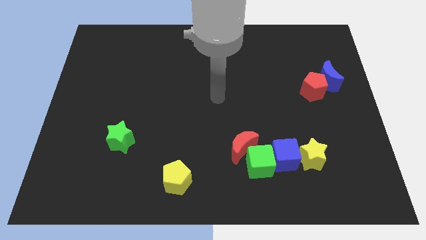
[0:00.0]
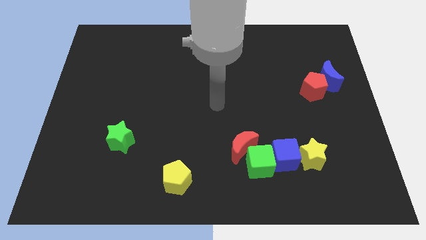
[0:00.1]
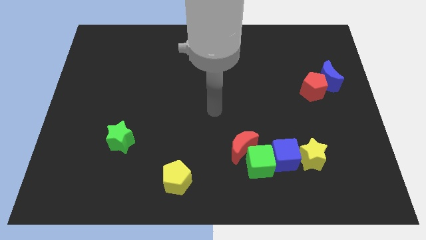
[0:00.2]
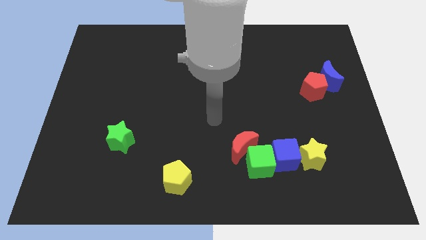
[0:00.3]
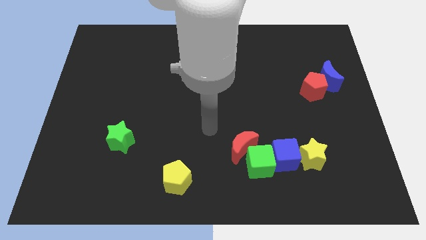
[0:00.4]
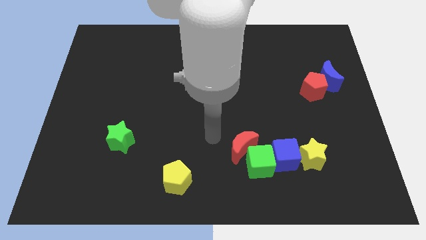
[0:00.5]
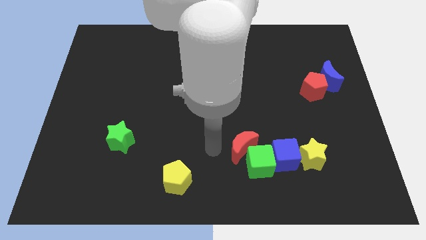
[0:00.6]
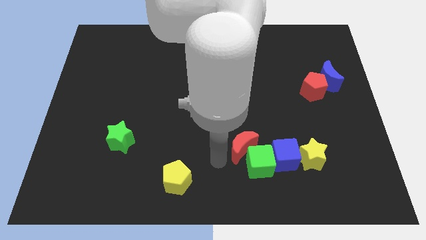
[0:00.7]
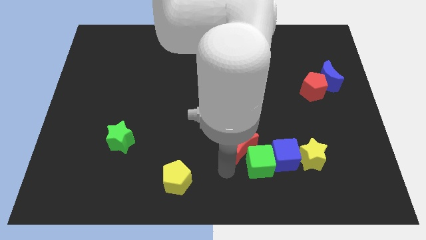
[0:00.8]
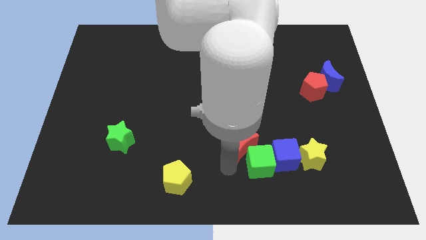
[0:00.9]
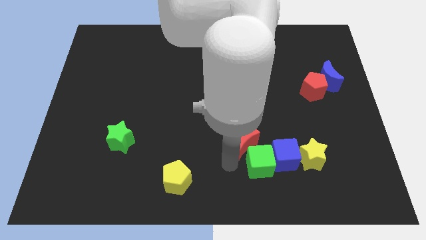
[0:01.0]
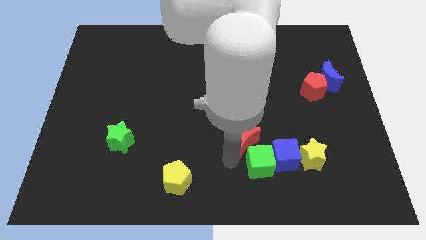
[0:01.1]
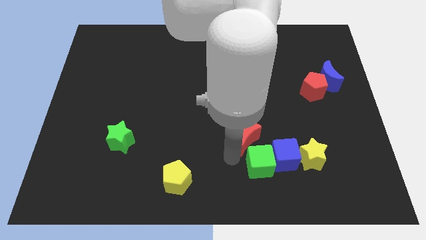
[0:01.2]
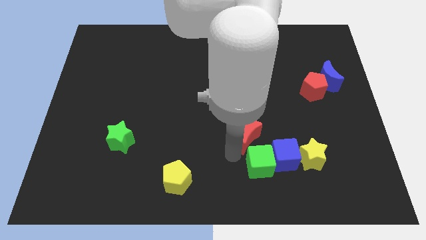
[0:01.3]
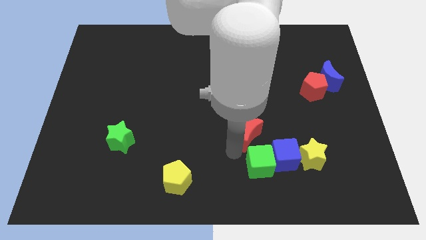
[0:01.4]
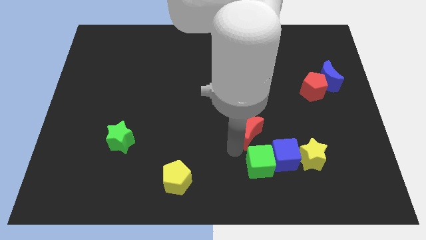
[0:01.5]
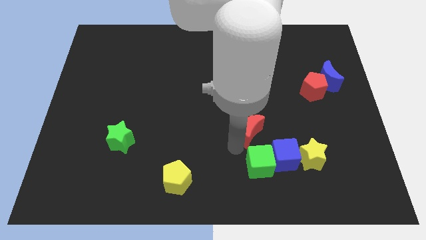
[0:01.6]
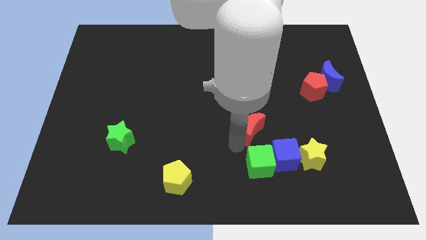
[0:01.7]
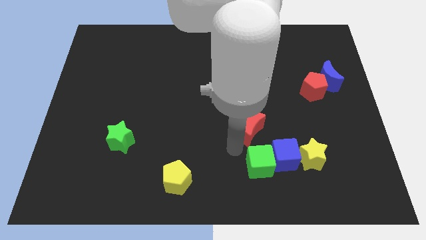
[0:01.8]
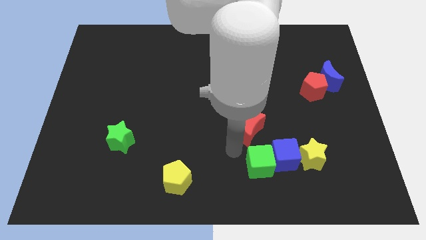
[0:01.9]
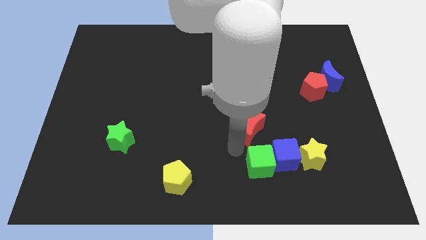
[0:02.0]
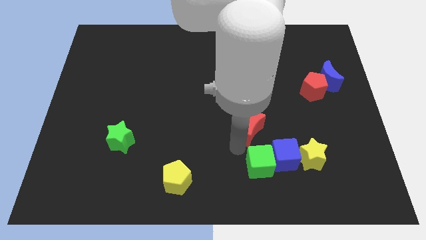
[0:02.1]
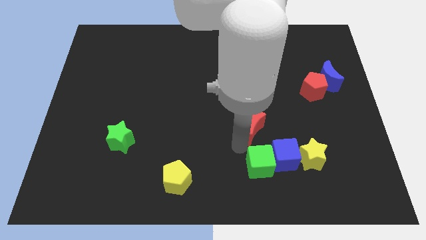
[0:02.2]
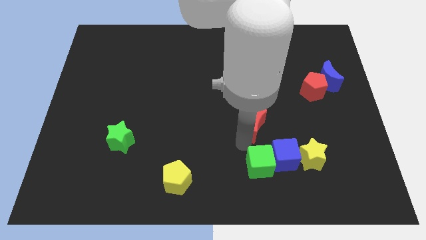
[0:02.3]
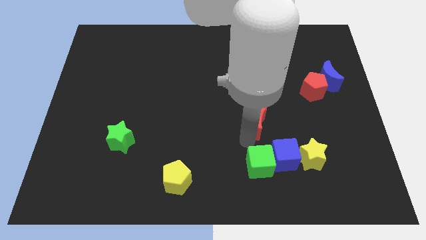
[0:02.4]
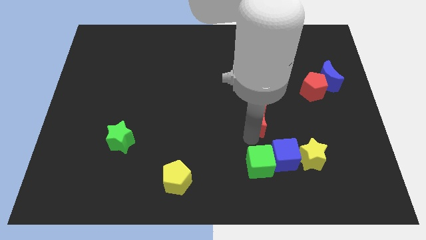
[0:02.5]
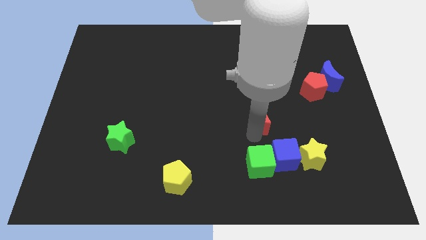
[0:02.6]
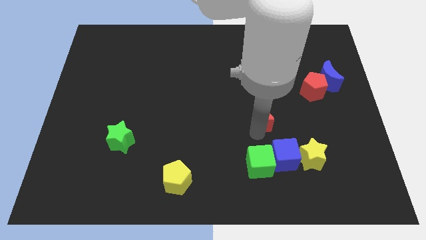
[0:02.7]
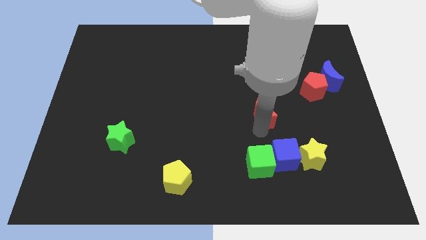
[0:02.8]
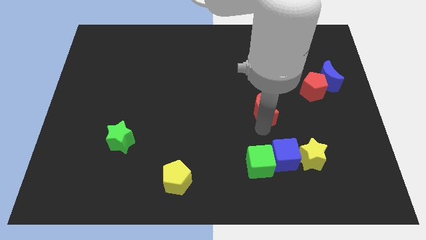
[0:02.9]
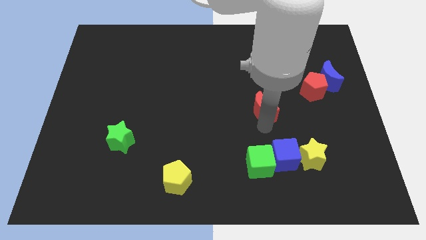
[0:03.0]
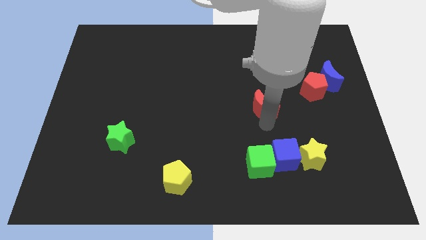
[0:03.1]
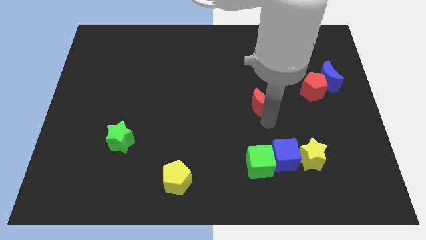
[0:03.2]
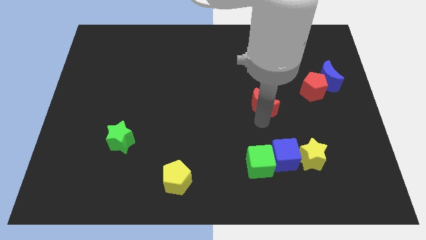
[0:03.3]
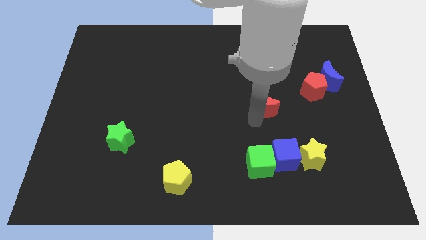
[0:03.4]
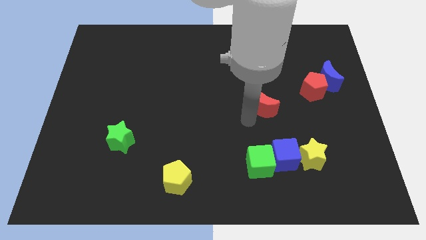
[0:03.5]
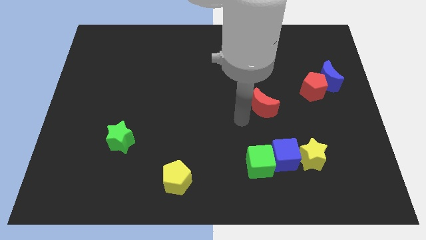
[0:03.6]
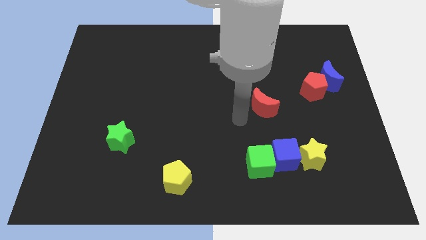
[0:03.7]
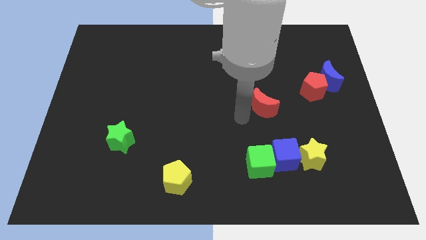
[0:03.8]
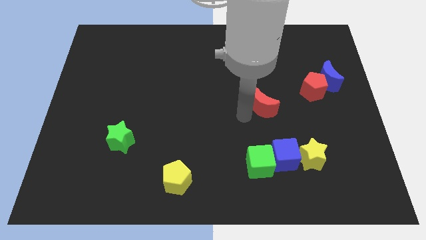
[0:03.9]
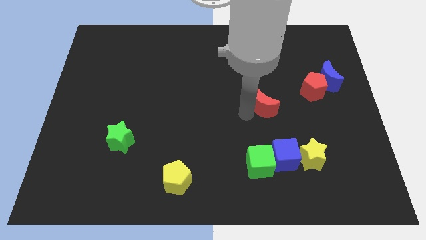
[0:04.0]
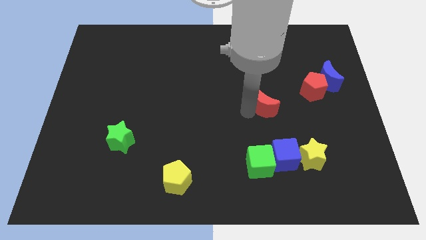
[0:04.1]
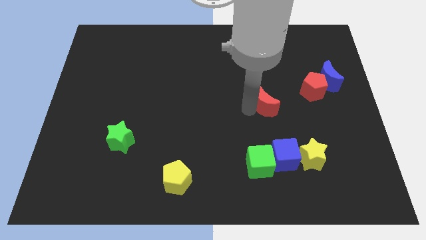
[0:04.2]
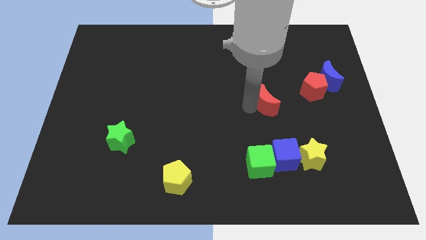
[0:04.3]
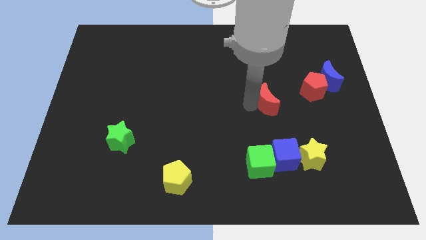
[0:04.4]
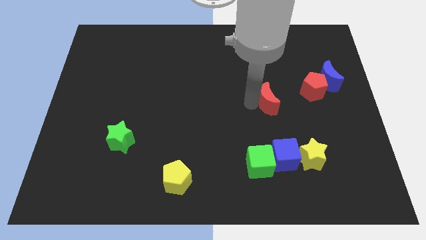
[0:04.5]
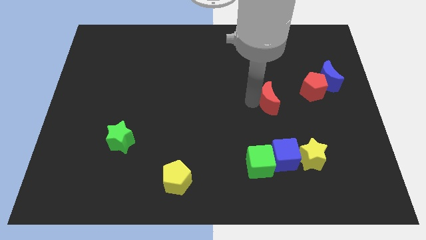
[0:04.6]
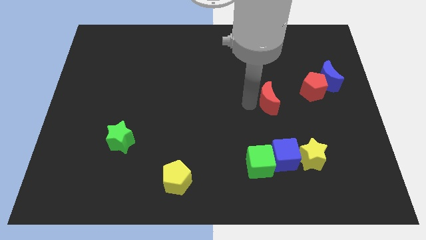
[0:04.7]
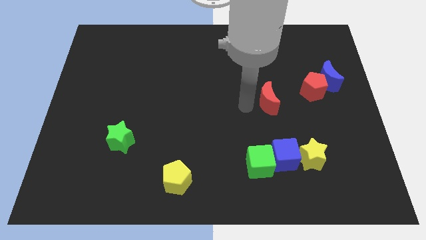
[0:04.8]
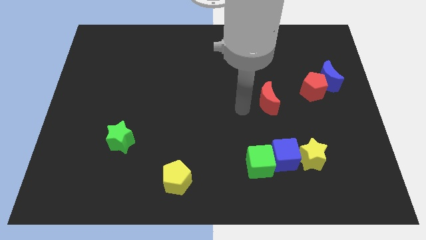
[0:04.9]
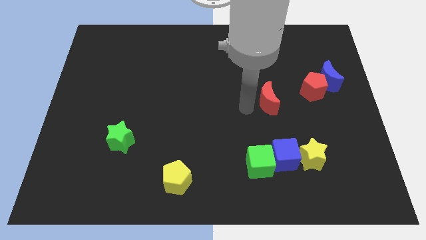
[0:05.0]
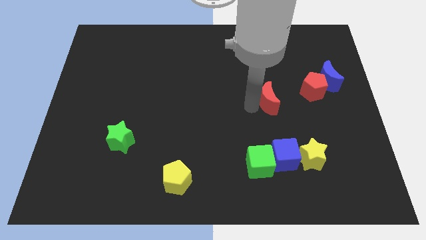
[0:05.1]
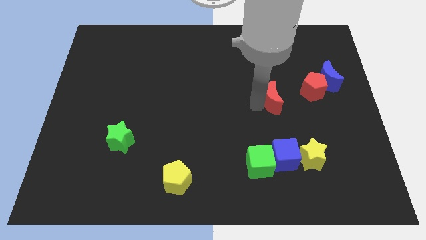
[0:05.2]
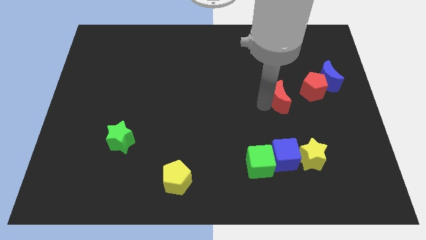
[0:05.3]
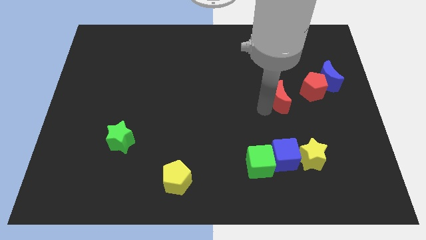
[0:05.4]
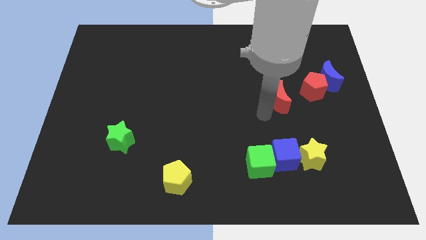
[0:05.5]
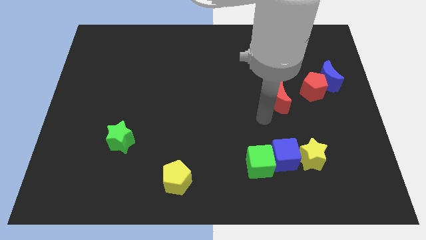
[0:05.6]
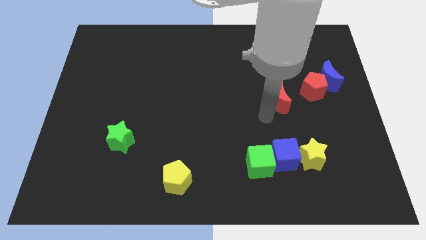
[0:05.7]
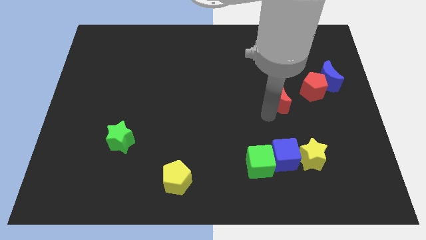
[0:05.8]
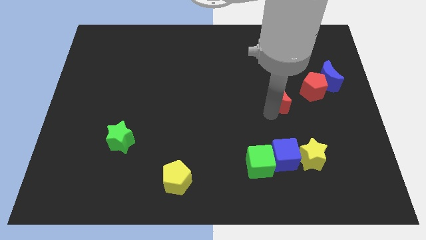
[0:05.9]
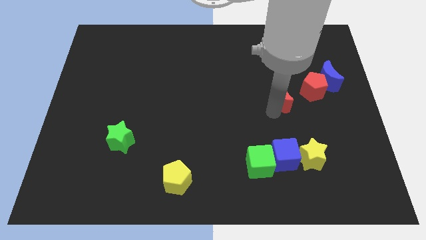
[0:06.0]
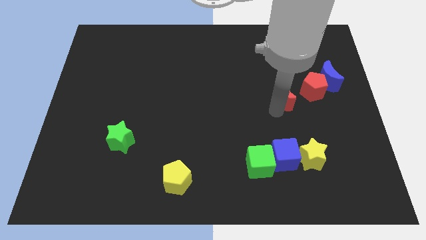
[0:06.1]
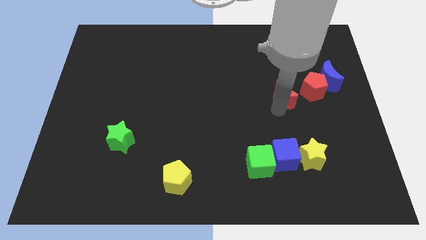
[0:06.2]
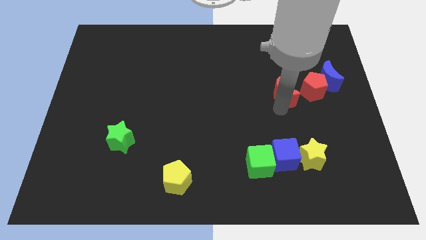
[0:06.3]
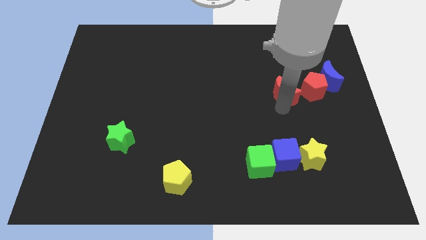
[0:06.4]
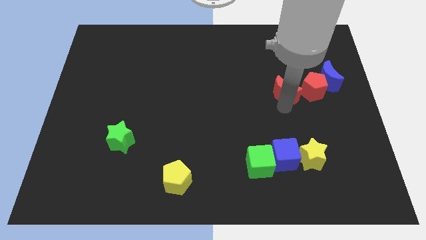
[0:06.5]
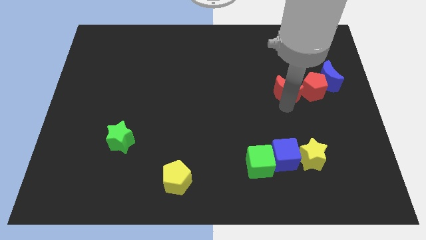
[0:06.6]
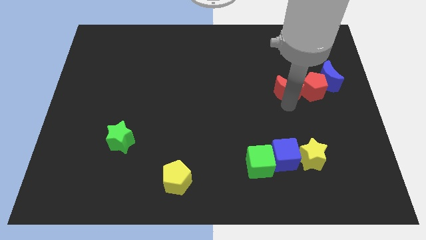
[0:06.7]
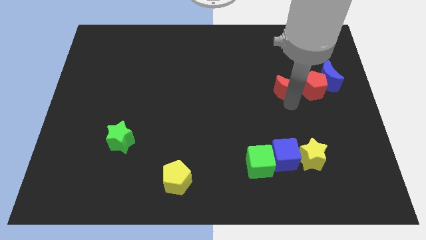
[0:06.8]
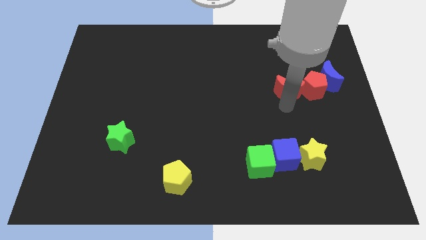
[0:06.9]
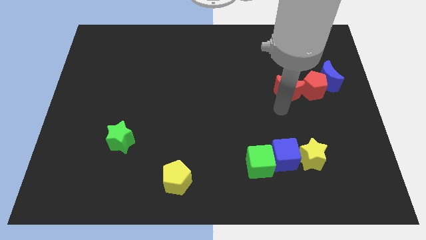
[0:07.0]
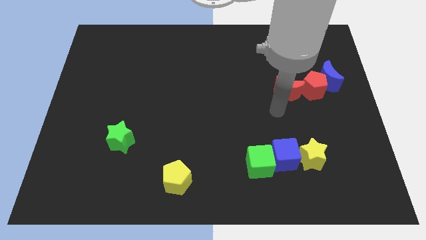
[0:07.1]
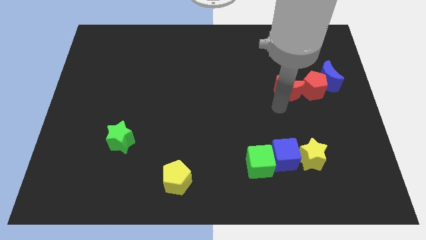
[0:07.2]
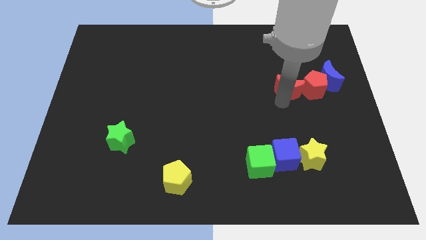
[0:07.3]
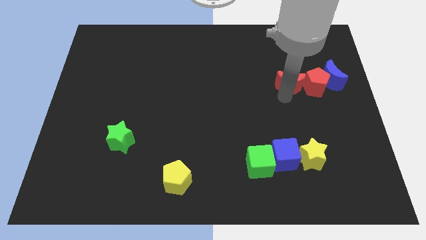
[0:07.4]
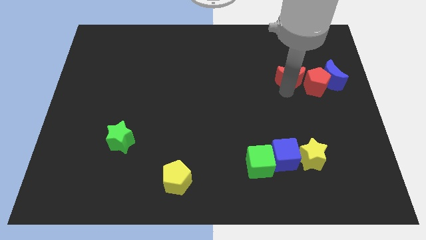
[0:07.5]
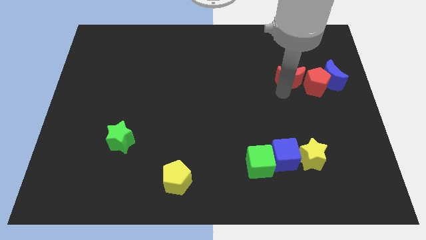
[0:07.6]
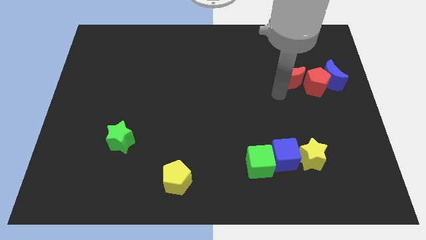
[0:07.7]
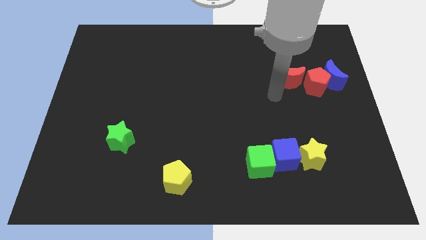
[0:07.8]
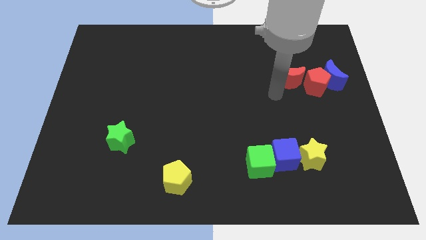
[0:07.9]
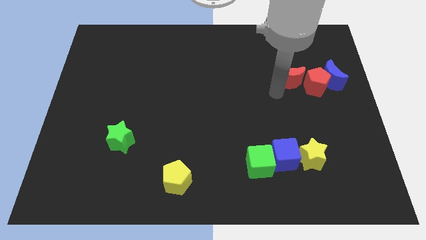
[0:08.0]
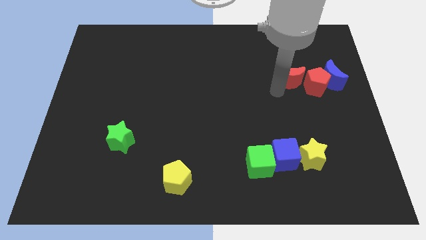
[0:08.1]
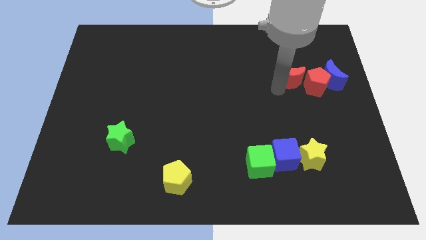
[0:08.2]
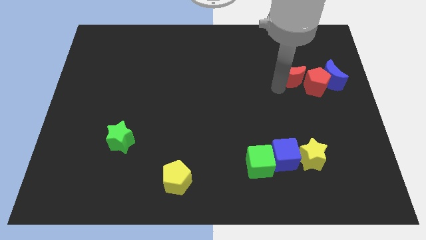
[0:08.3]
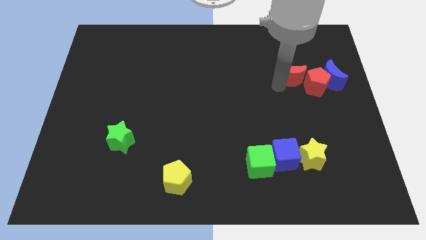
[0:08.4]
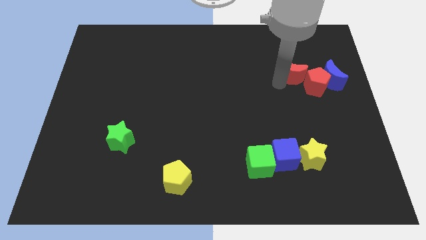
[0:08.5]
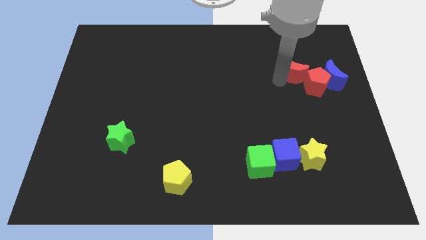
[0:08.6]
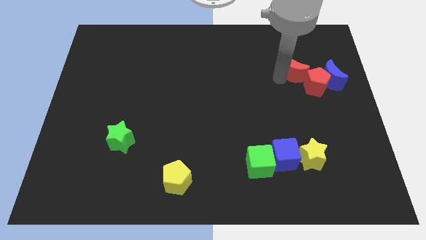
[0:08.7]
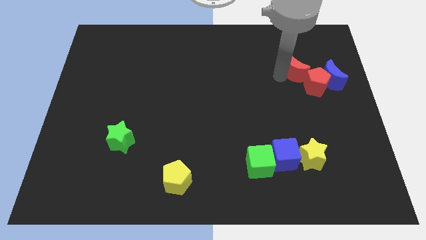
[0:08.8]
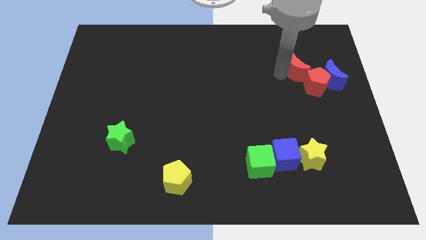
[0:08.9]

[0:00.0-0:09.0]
push the red moon to the top side of the red pentagon
